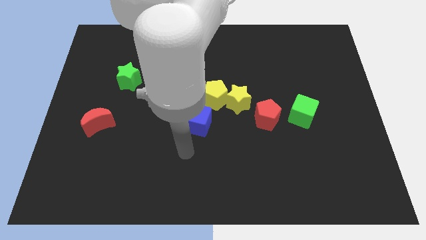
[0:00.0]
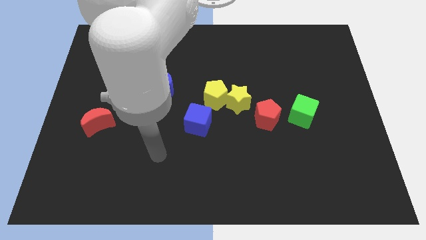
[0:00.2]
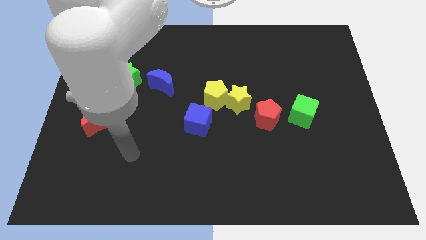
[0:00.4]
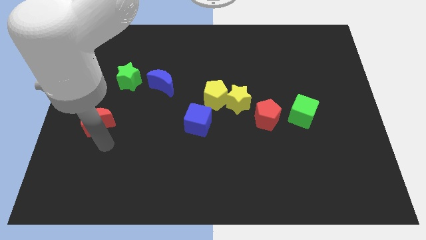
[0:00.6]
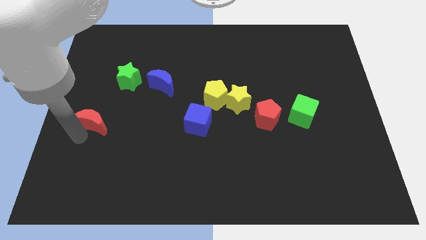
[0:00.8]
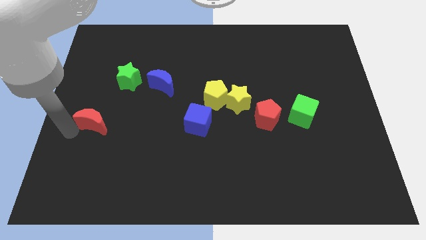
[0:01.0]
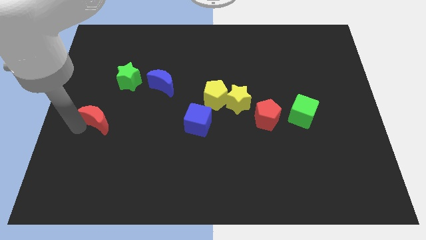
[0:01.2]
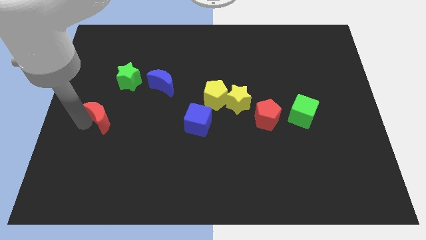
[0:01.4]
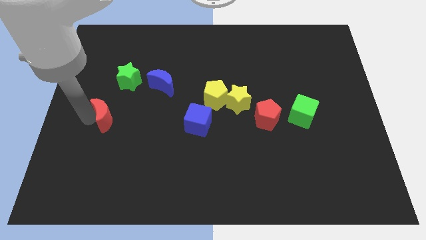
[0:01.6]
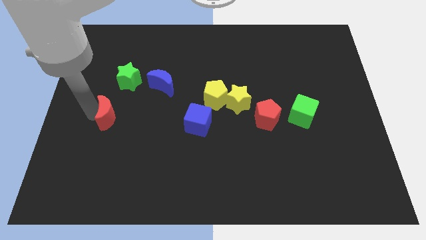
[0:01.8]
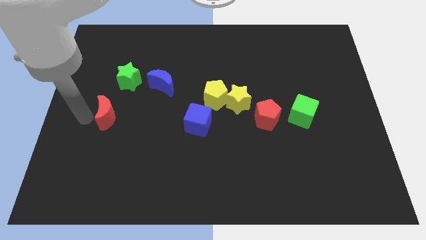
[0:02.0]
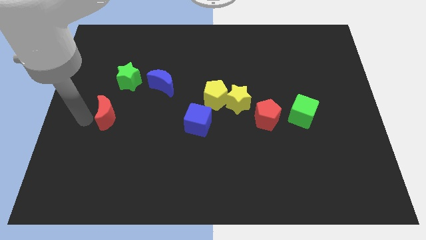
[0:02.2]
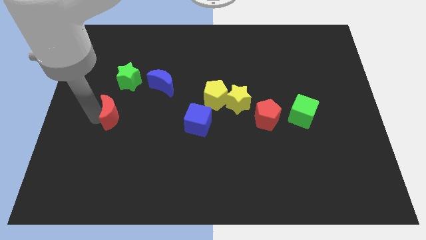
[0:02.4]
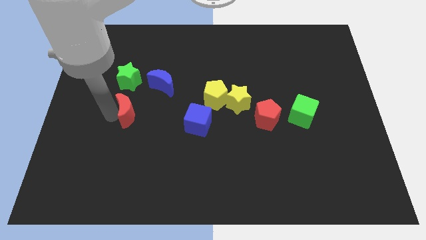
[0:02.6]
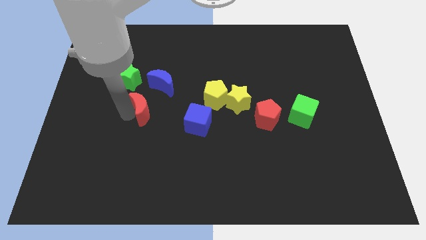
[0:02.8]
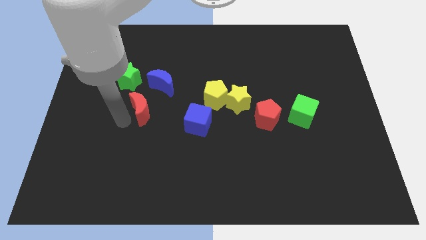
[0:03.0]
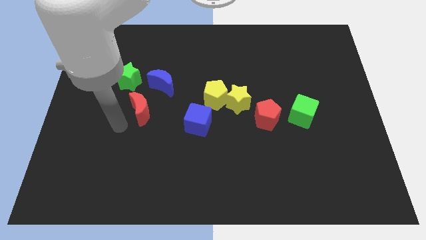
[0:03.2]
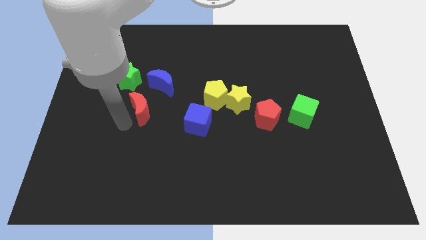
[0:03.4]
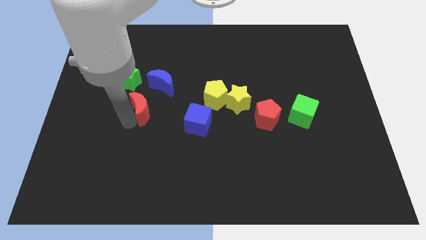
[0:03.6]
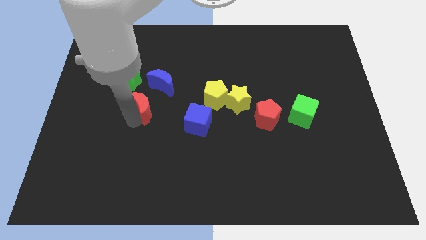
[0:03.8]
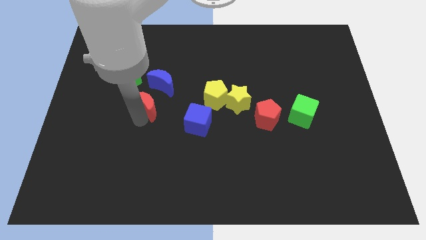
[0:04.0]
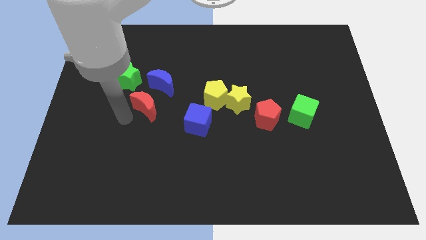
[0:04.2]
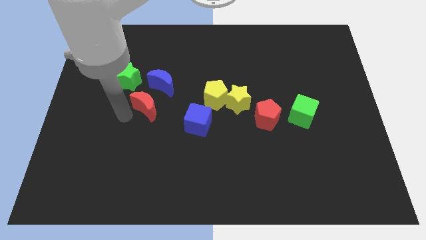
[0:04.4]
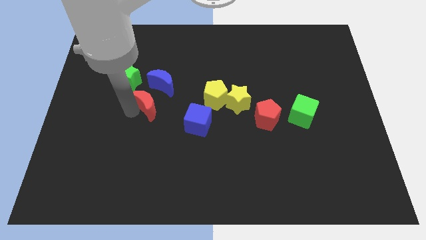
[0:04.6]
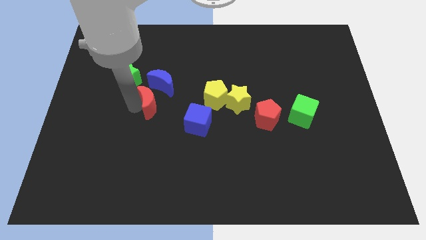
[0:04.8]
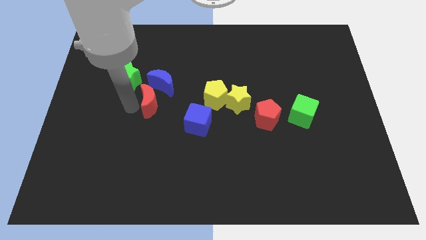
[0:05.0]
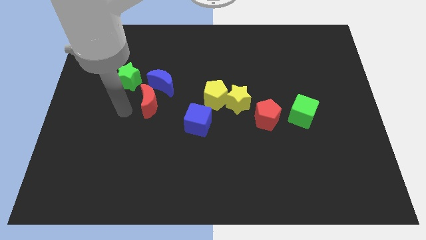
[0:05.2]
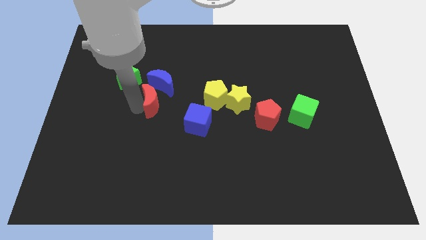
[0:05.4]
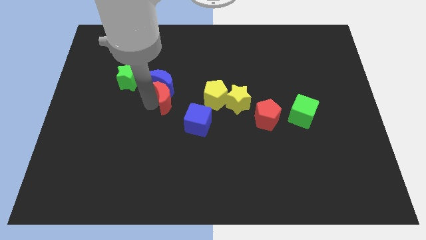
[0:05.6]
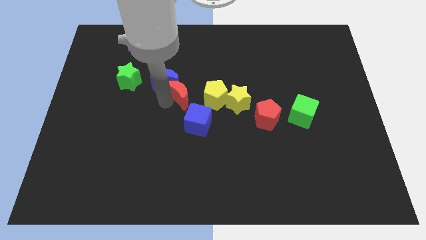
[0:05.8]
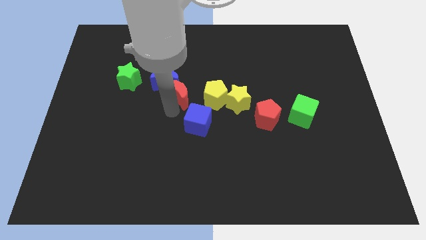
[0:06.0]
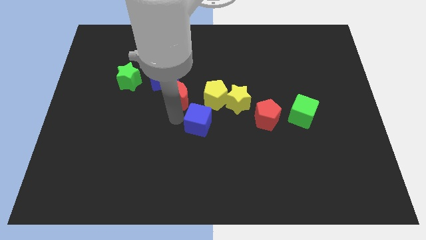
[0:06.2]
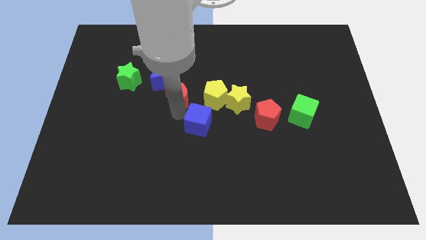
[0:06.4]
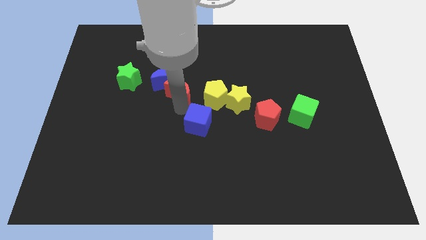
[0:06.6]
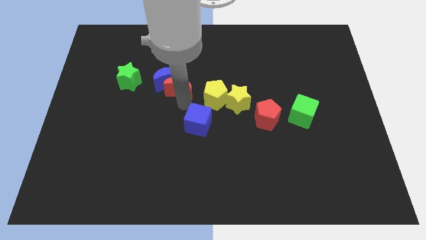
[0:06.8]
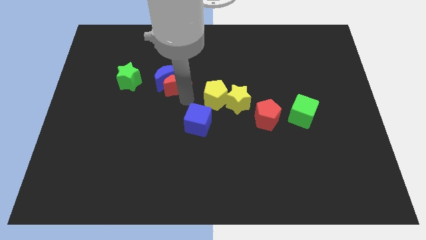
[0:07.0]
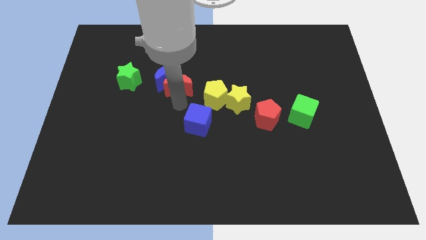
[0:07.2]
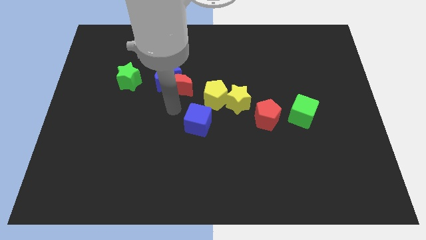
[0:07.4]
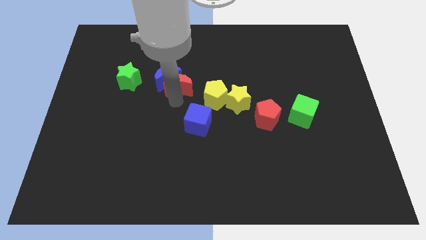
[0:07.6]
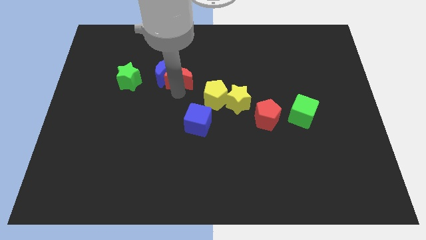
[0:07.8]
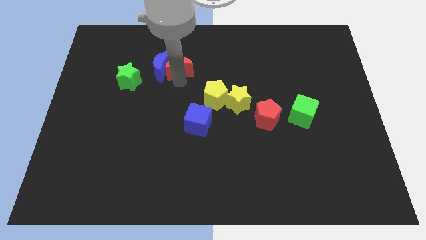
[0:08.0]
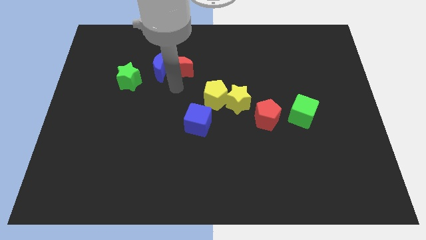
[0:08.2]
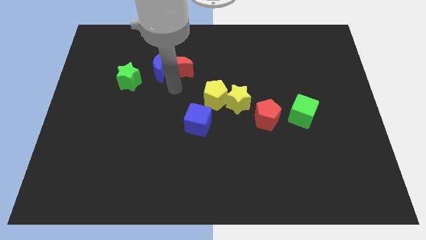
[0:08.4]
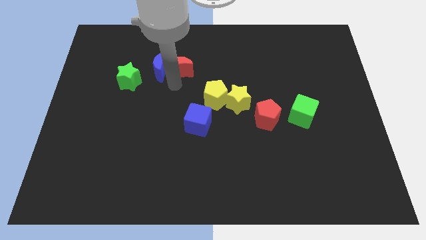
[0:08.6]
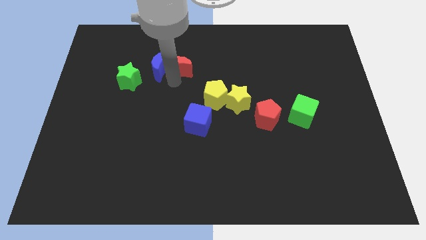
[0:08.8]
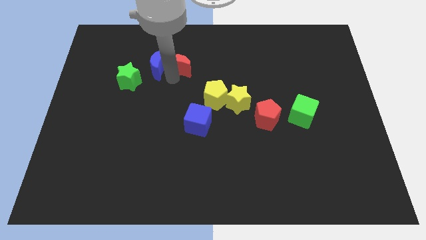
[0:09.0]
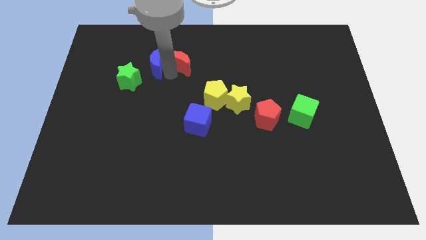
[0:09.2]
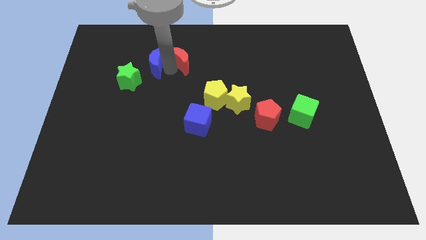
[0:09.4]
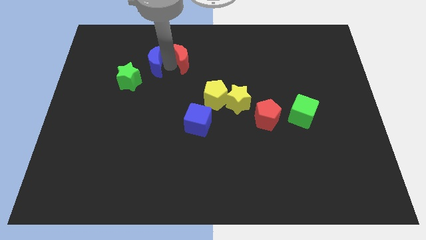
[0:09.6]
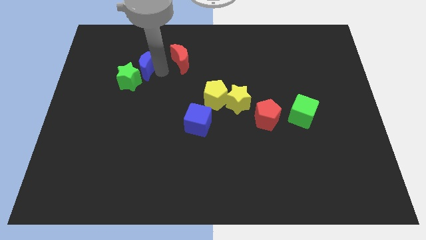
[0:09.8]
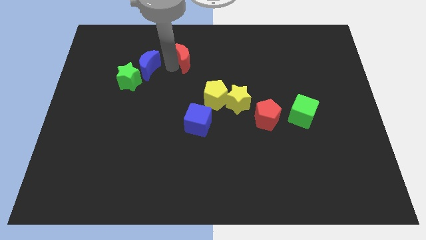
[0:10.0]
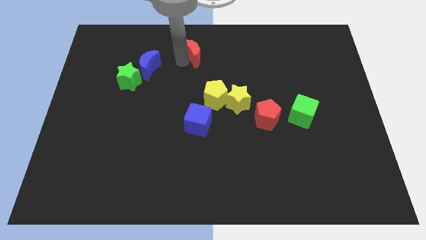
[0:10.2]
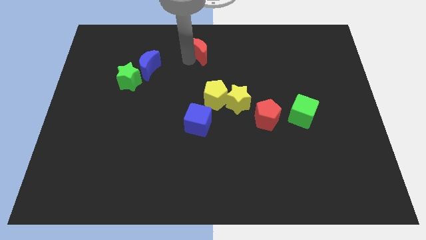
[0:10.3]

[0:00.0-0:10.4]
put the red moon to the top side

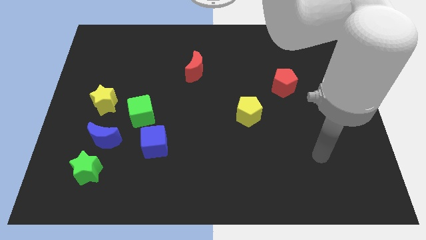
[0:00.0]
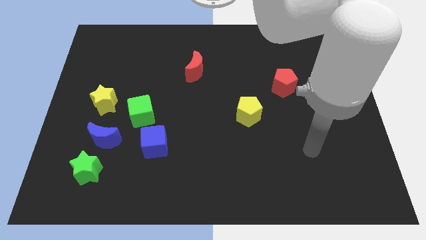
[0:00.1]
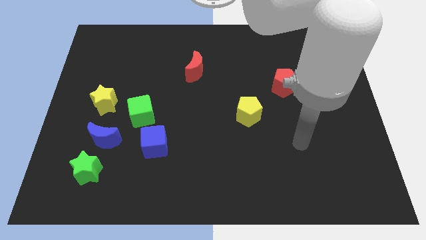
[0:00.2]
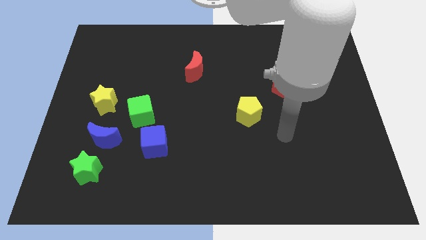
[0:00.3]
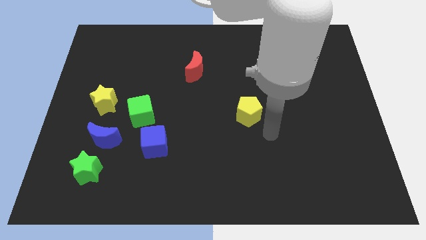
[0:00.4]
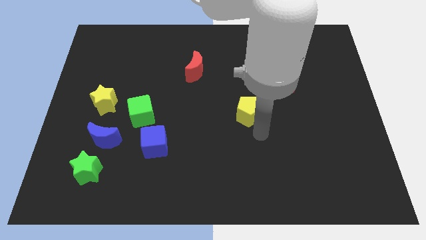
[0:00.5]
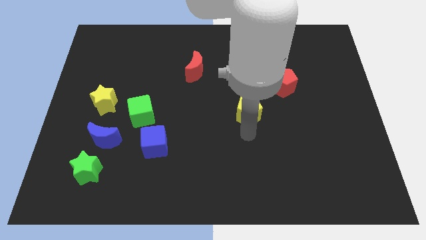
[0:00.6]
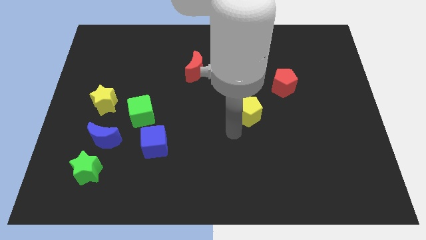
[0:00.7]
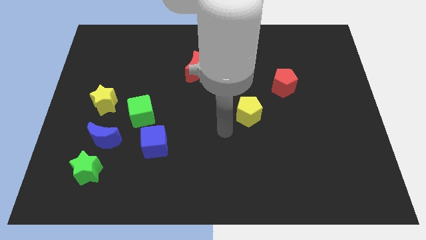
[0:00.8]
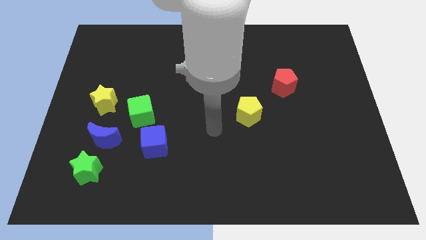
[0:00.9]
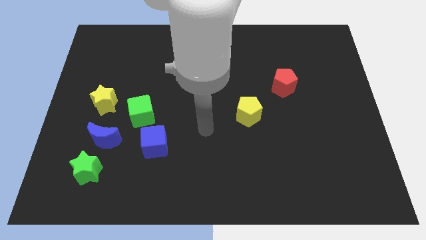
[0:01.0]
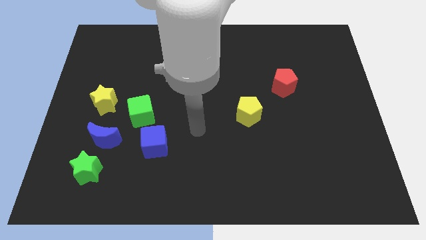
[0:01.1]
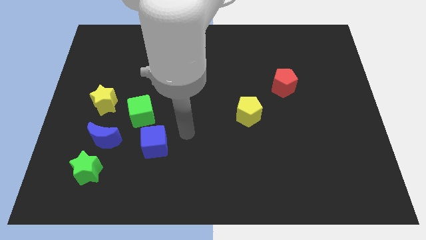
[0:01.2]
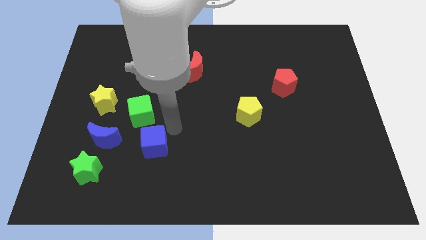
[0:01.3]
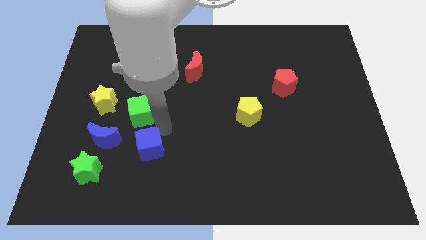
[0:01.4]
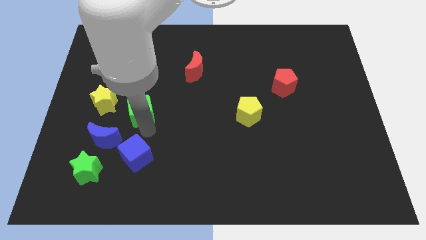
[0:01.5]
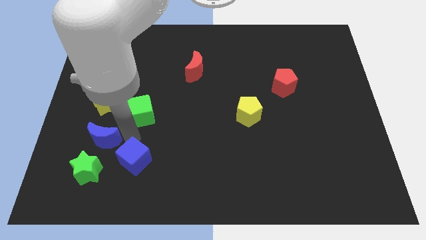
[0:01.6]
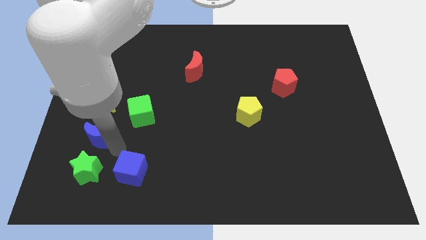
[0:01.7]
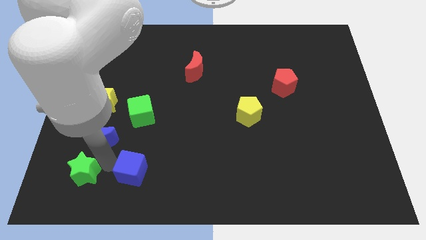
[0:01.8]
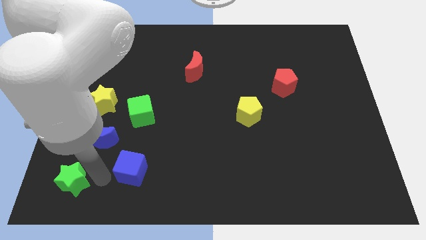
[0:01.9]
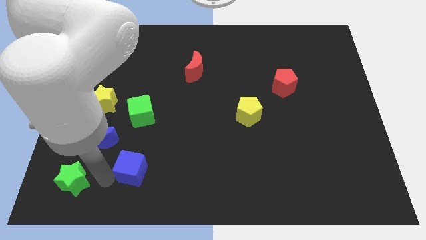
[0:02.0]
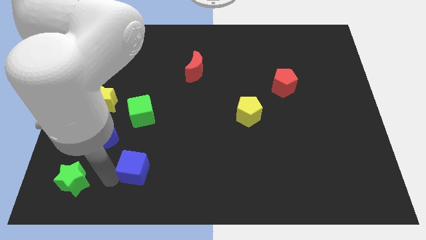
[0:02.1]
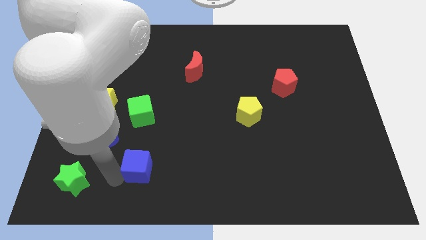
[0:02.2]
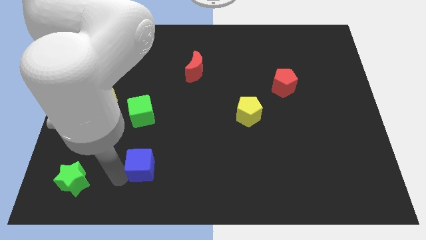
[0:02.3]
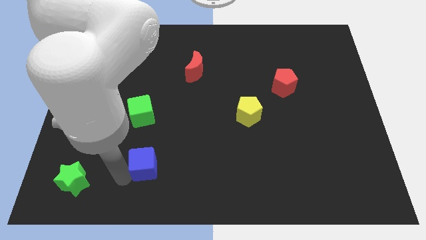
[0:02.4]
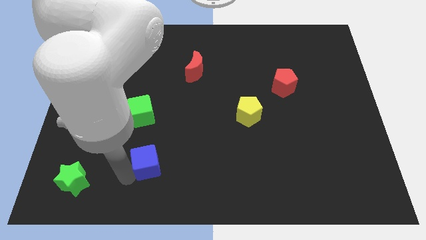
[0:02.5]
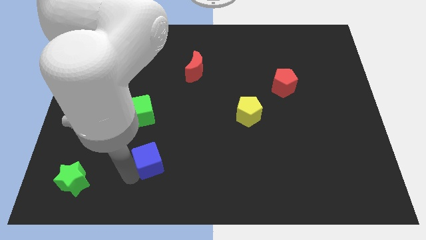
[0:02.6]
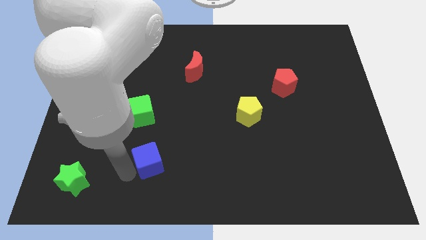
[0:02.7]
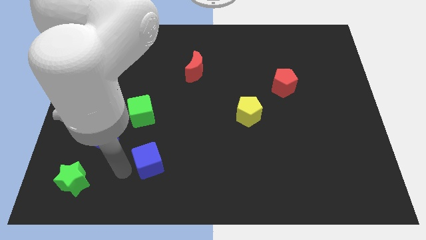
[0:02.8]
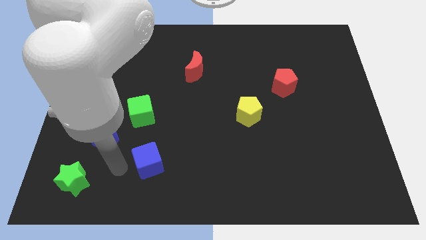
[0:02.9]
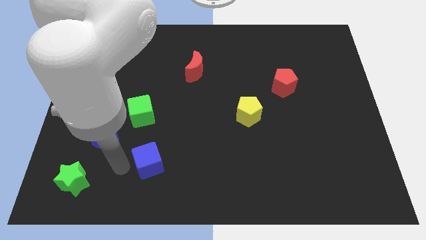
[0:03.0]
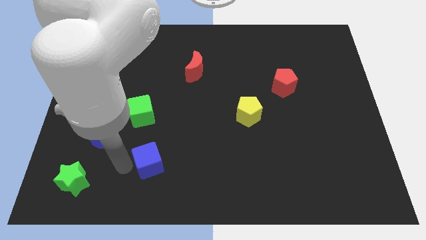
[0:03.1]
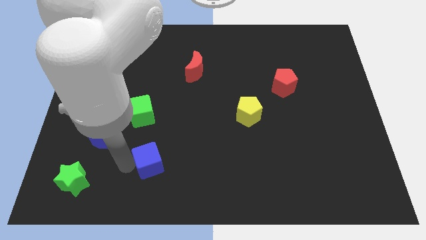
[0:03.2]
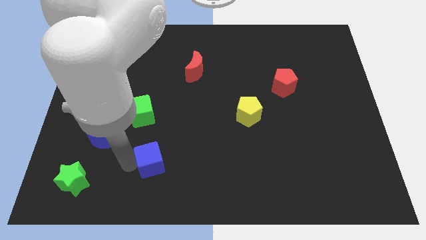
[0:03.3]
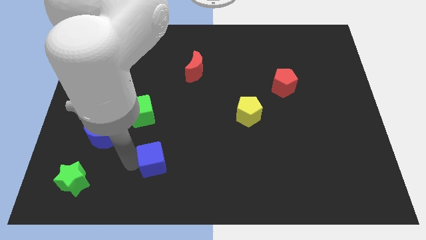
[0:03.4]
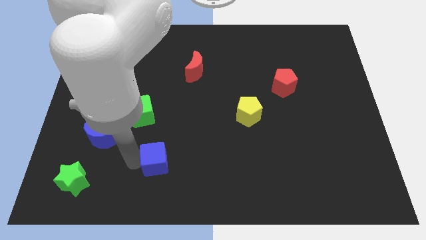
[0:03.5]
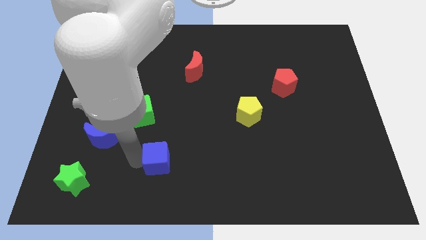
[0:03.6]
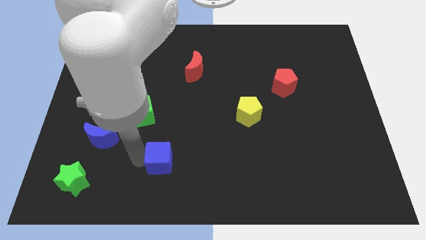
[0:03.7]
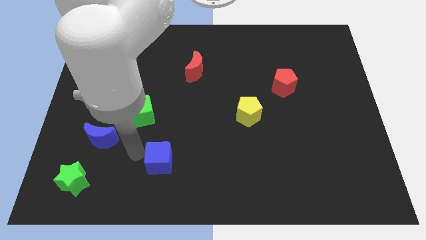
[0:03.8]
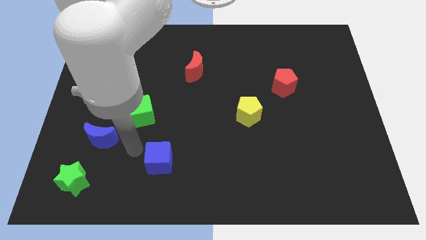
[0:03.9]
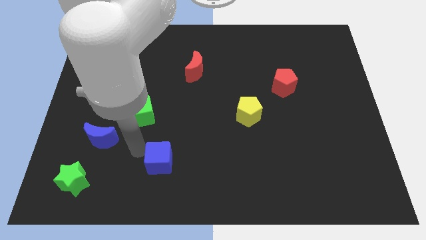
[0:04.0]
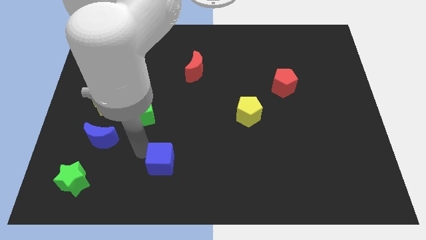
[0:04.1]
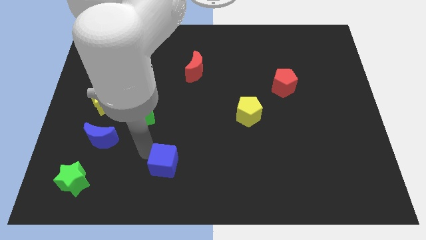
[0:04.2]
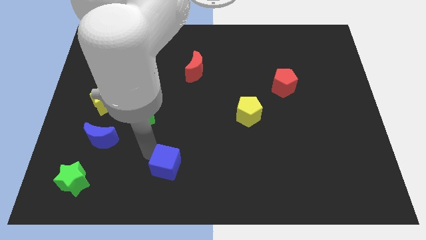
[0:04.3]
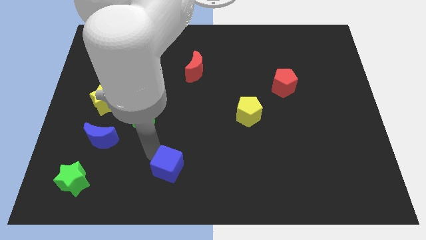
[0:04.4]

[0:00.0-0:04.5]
slide the blue cube to the bottom side
